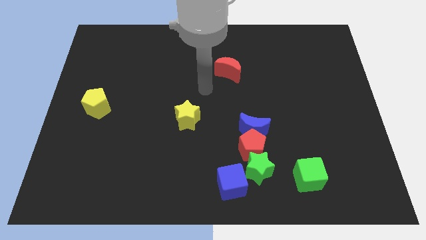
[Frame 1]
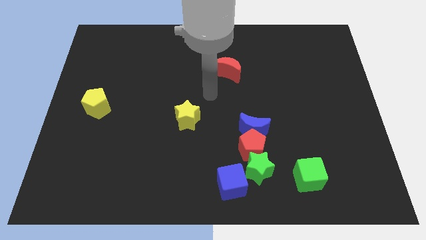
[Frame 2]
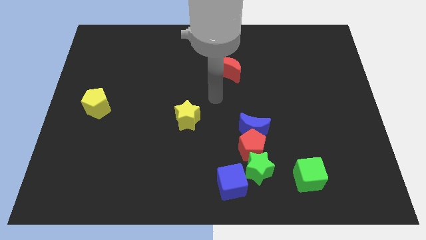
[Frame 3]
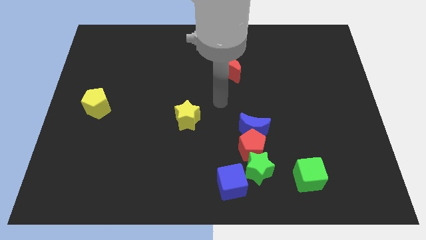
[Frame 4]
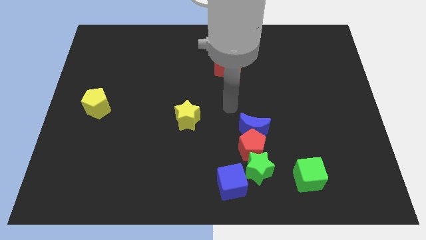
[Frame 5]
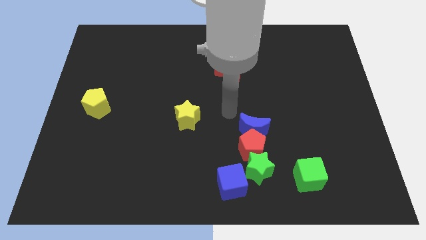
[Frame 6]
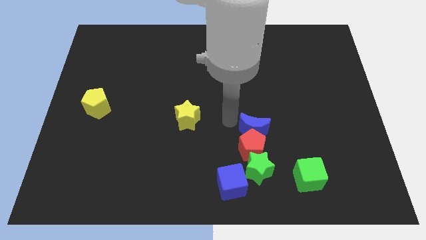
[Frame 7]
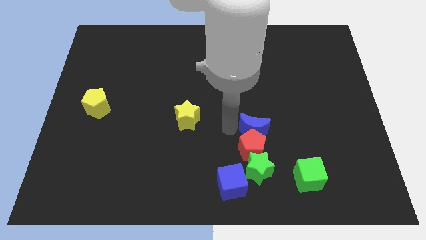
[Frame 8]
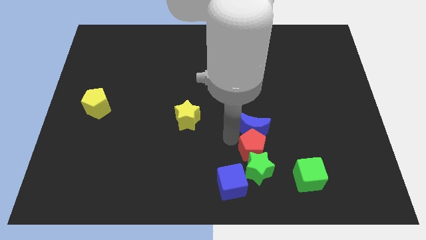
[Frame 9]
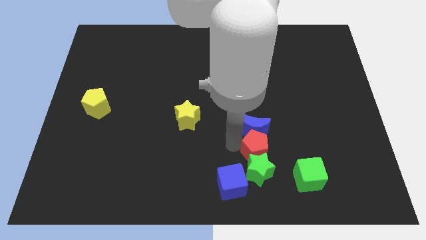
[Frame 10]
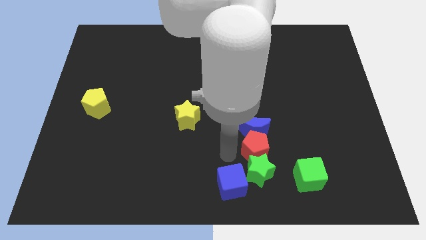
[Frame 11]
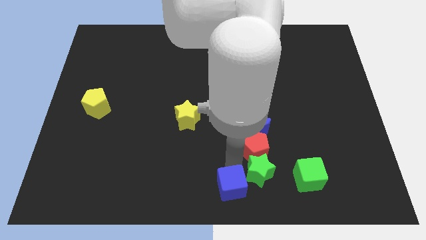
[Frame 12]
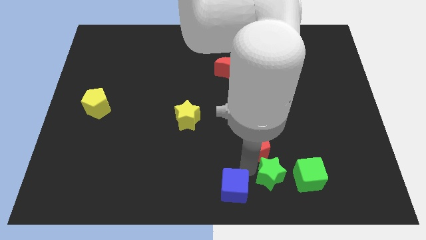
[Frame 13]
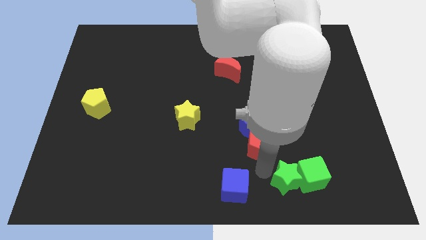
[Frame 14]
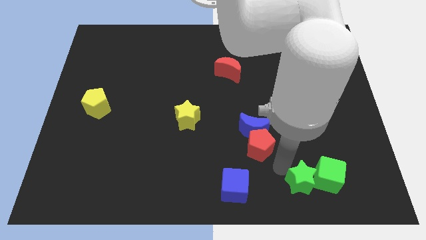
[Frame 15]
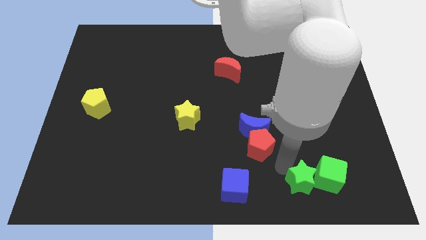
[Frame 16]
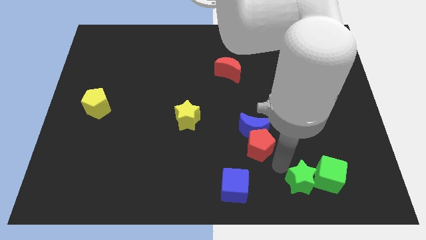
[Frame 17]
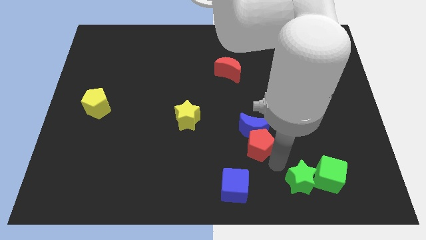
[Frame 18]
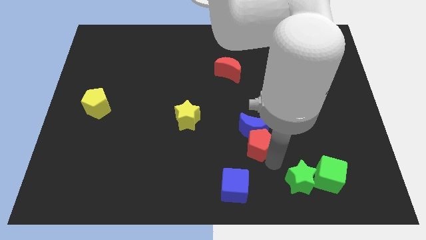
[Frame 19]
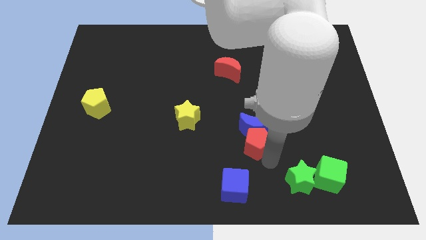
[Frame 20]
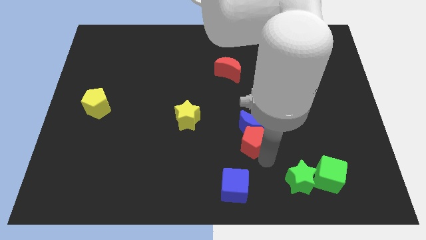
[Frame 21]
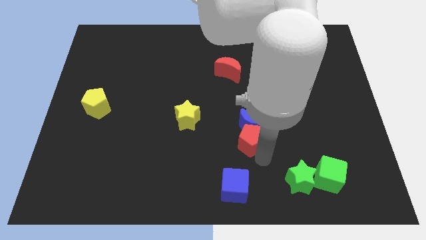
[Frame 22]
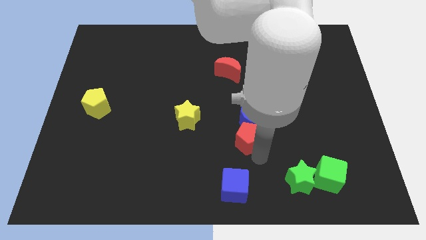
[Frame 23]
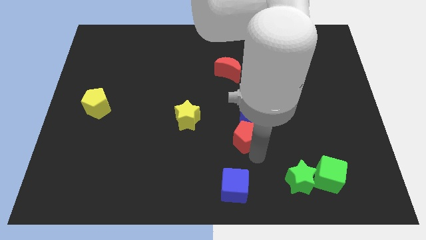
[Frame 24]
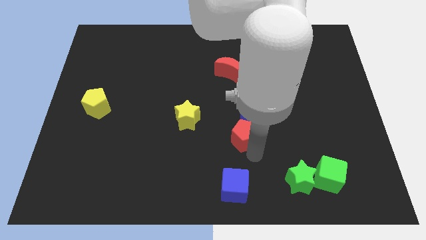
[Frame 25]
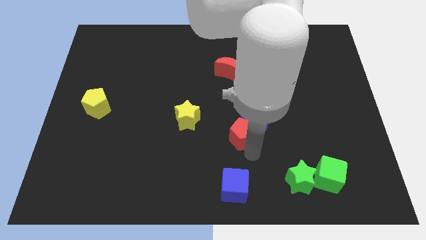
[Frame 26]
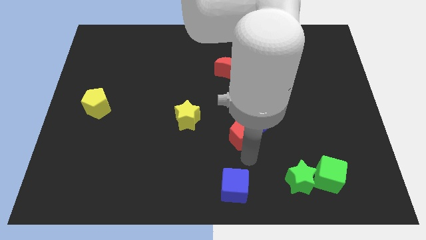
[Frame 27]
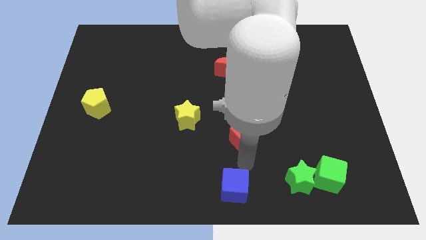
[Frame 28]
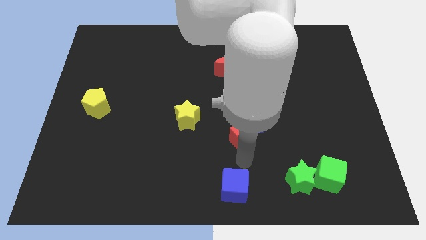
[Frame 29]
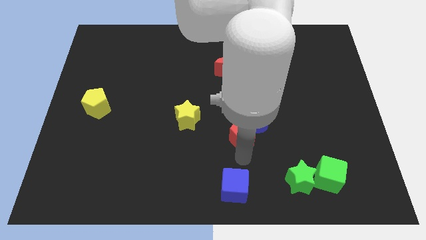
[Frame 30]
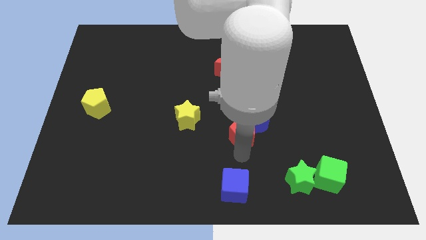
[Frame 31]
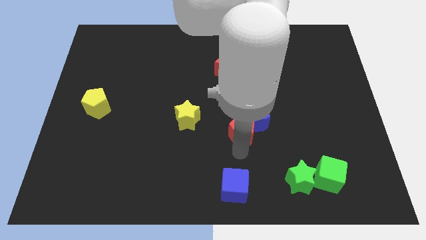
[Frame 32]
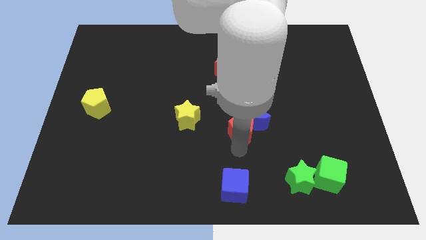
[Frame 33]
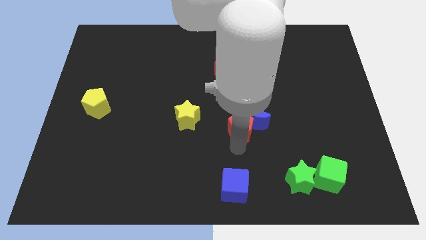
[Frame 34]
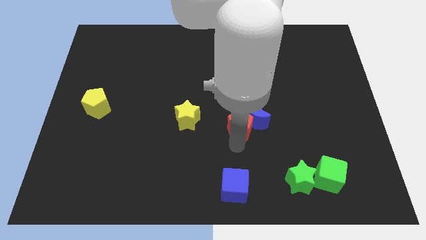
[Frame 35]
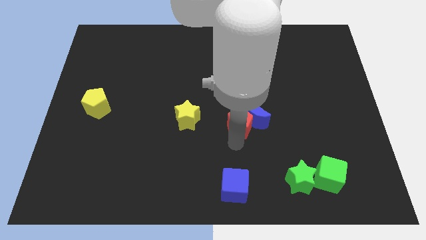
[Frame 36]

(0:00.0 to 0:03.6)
pull the red pentagon apart from the clump

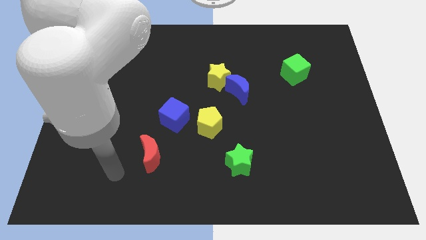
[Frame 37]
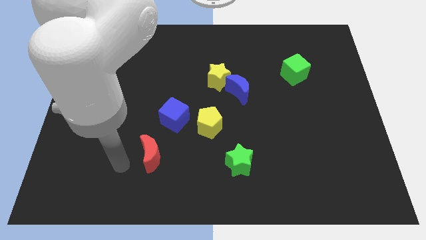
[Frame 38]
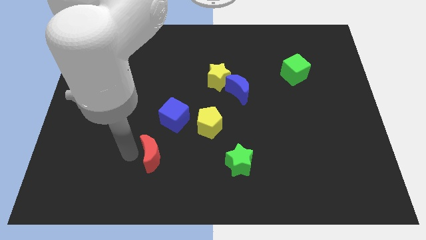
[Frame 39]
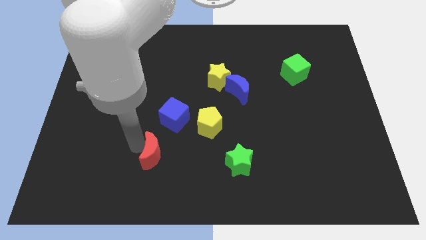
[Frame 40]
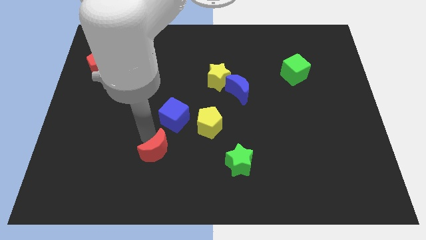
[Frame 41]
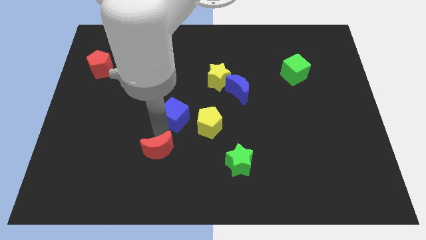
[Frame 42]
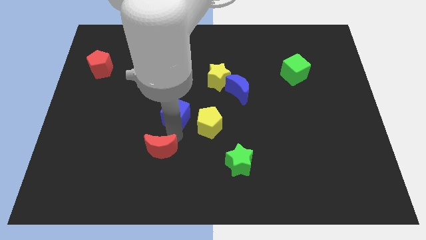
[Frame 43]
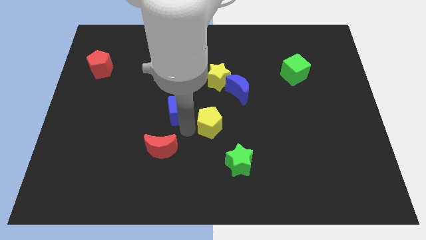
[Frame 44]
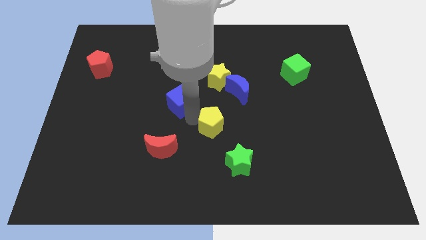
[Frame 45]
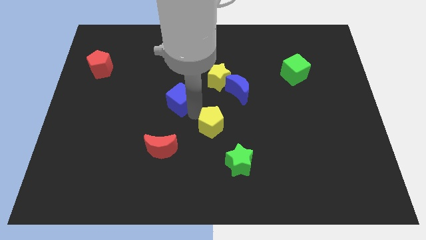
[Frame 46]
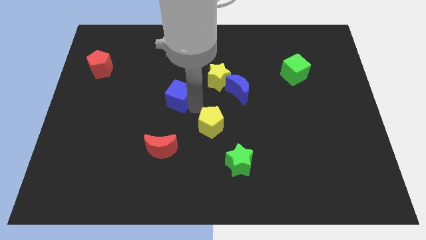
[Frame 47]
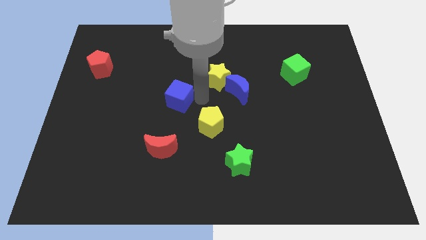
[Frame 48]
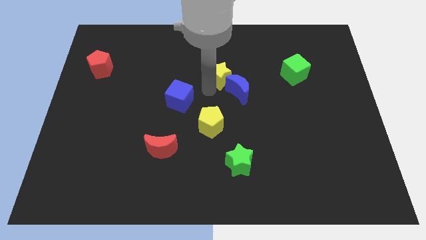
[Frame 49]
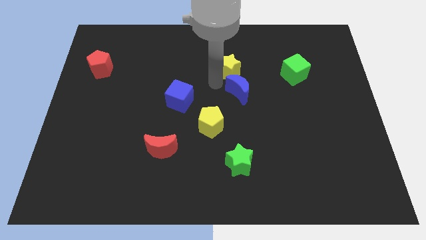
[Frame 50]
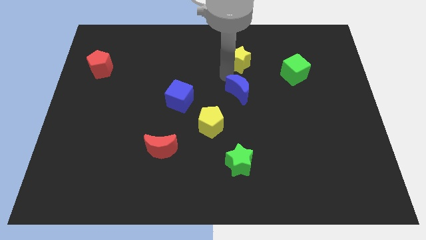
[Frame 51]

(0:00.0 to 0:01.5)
move the blue moon away from the yellow star

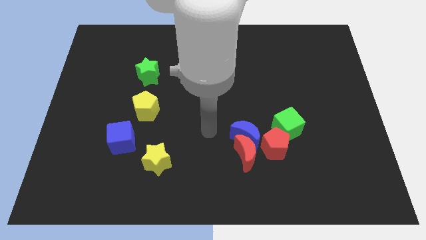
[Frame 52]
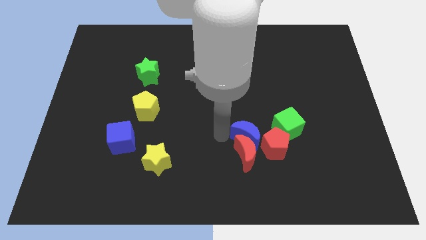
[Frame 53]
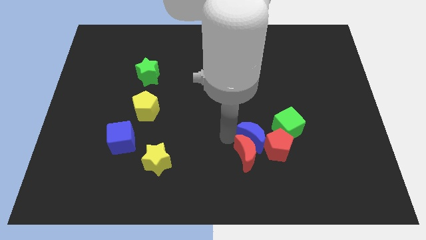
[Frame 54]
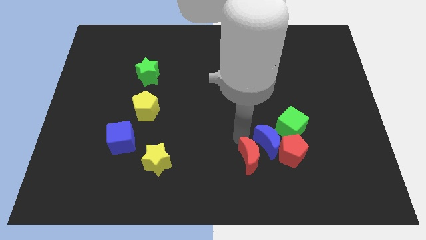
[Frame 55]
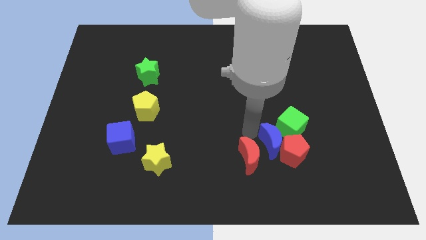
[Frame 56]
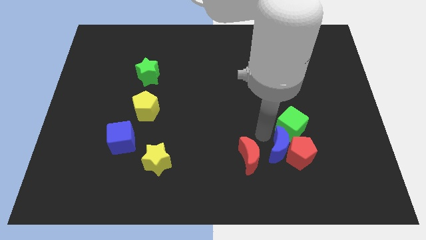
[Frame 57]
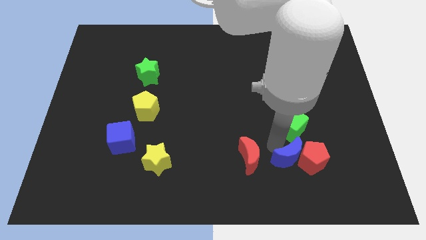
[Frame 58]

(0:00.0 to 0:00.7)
separate the red moon from the blue moon and red pentagon

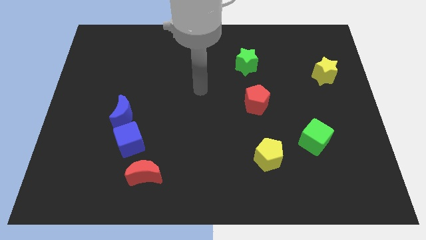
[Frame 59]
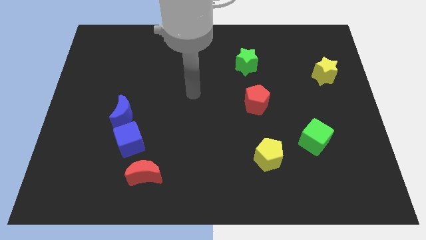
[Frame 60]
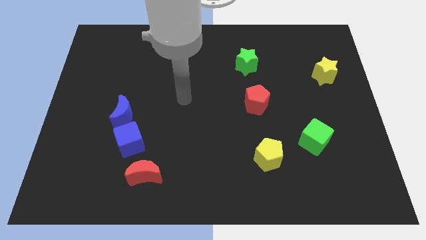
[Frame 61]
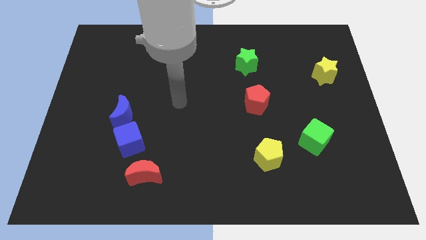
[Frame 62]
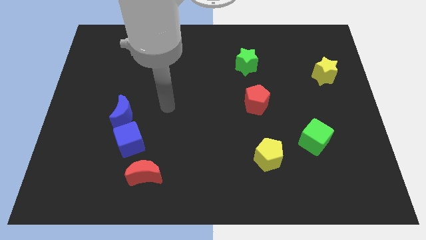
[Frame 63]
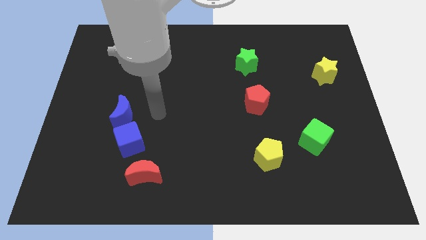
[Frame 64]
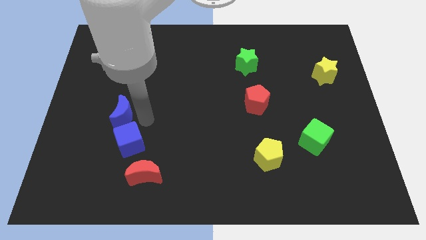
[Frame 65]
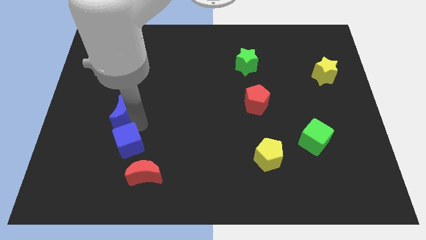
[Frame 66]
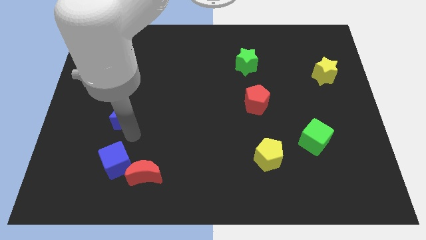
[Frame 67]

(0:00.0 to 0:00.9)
move the blue moon away from the blue cube

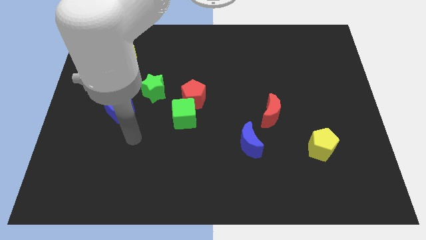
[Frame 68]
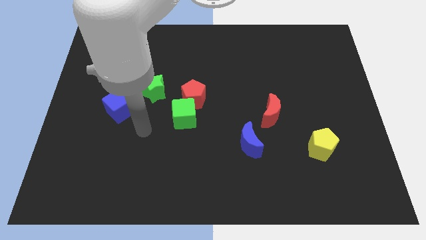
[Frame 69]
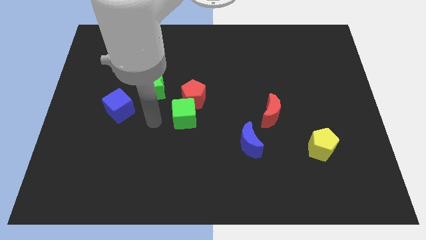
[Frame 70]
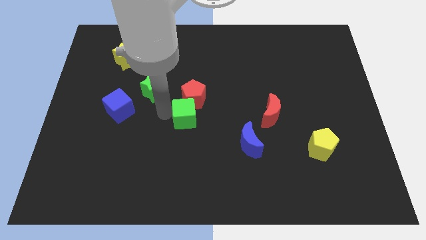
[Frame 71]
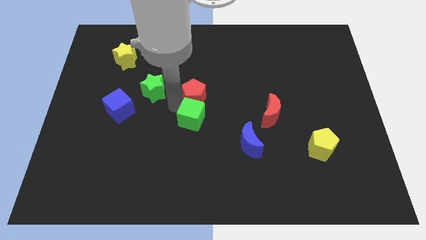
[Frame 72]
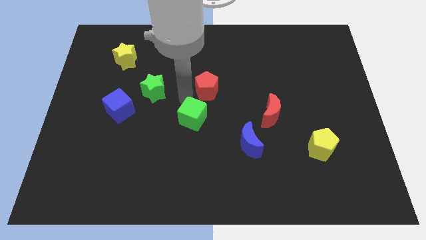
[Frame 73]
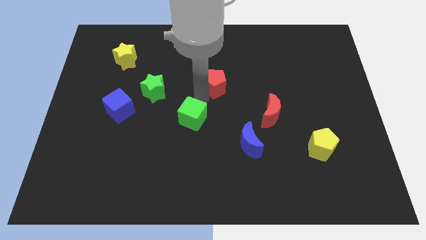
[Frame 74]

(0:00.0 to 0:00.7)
move the green cube away from the red pentagon

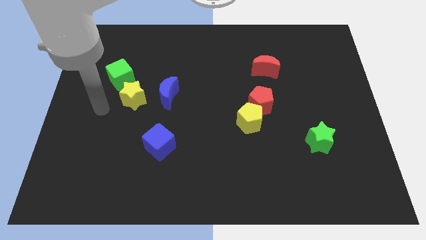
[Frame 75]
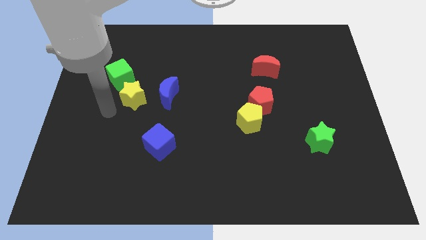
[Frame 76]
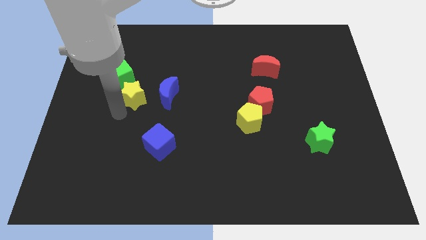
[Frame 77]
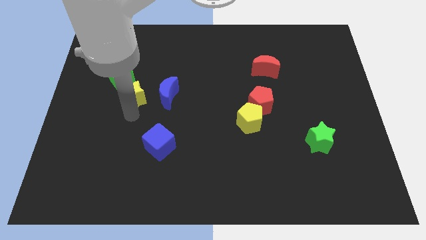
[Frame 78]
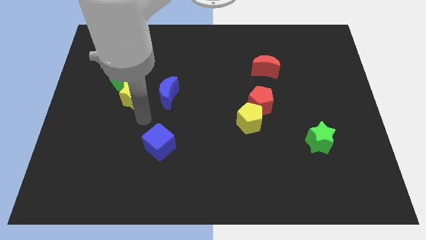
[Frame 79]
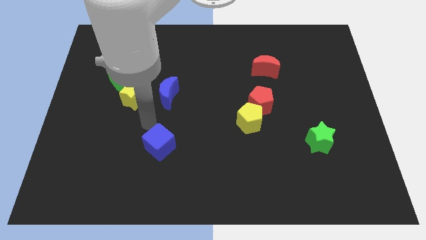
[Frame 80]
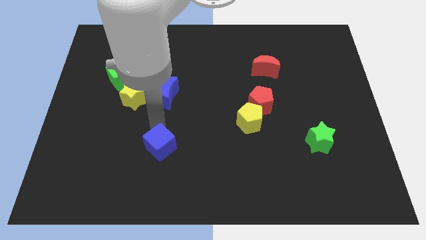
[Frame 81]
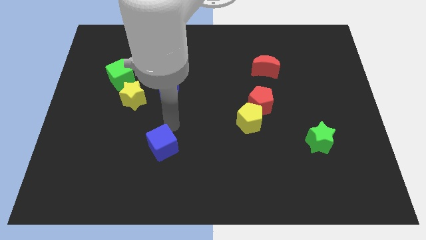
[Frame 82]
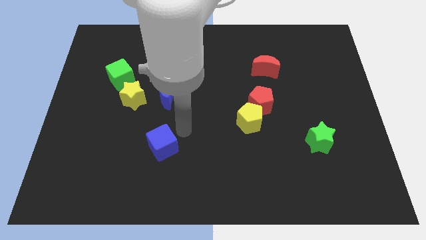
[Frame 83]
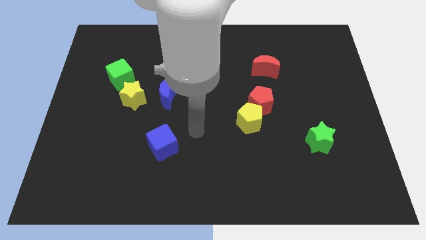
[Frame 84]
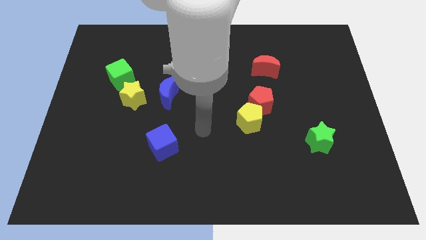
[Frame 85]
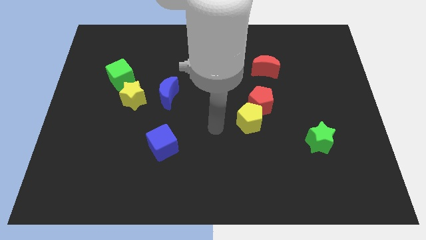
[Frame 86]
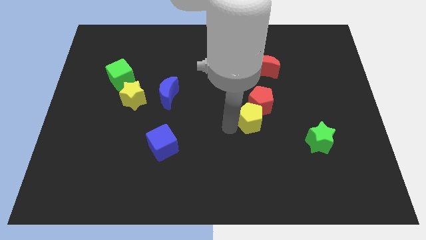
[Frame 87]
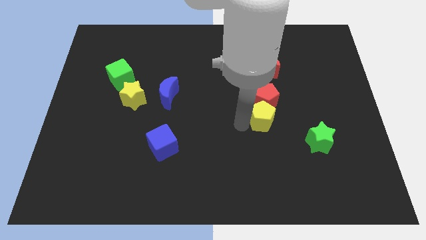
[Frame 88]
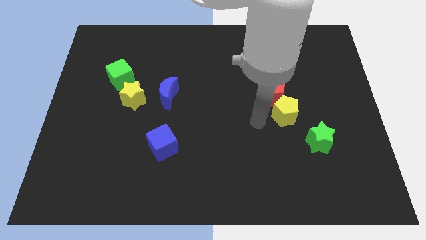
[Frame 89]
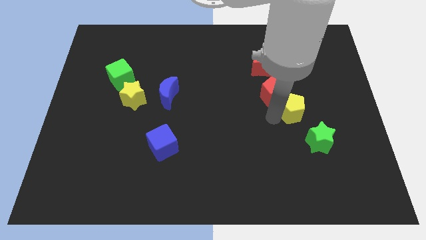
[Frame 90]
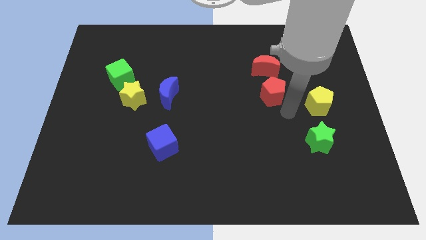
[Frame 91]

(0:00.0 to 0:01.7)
move the red pentagon away from the yellow pentagon

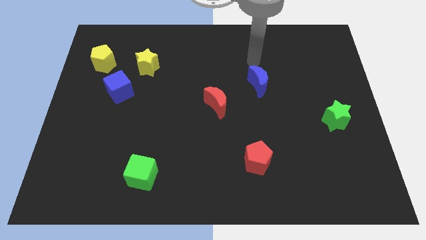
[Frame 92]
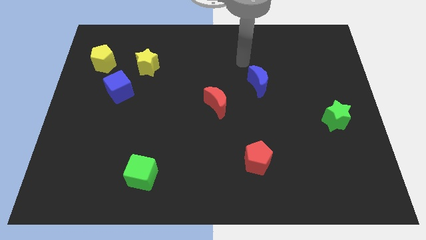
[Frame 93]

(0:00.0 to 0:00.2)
move the blue cube away from the yellow star
